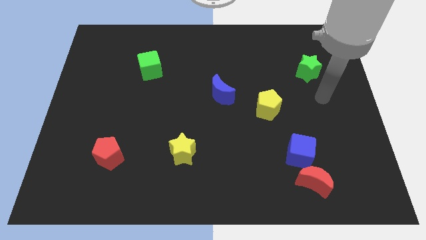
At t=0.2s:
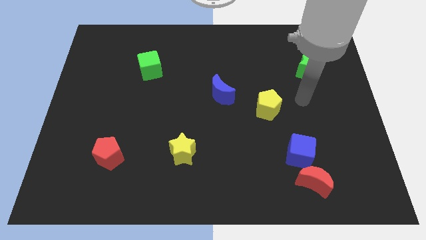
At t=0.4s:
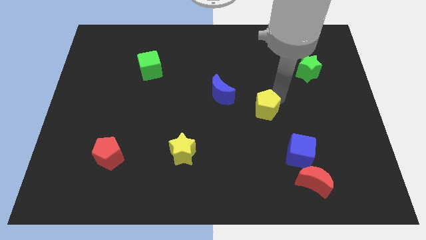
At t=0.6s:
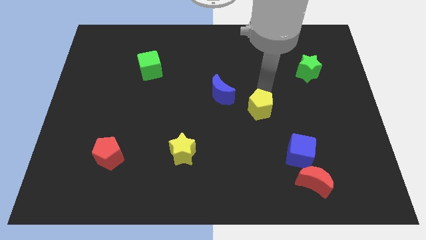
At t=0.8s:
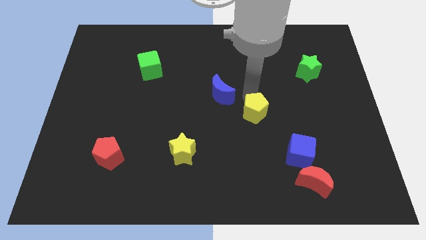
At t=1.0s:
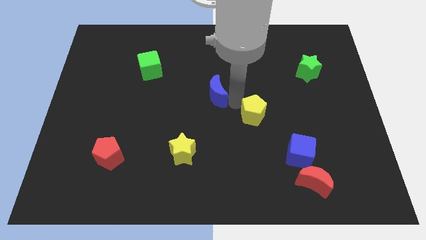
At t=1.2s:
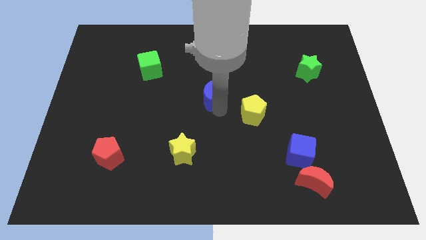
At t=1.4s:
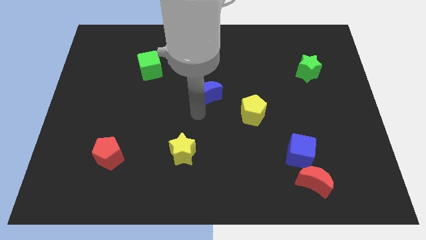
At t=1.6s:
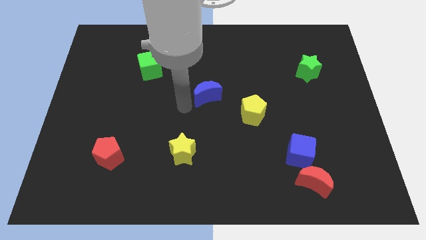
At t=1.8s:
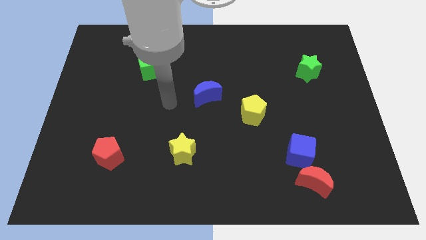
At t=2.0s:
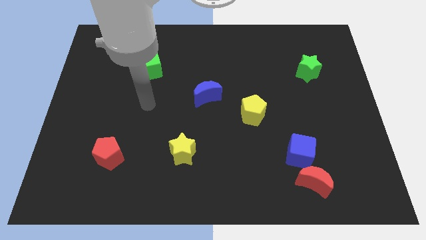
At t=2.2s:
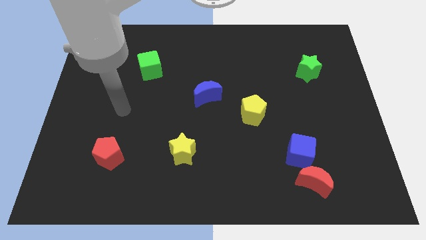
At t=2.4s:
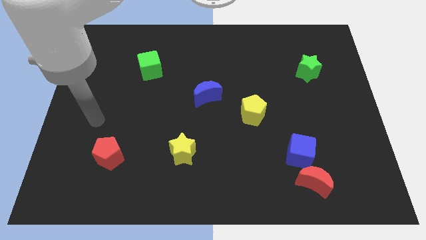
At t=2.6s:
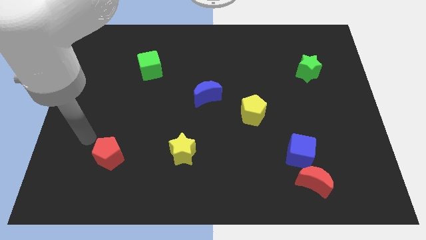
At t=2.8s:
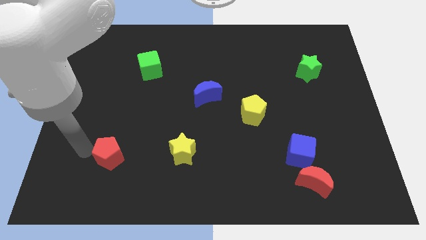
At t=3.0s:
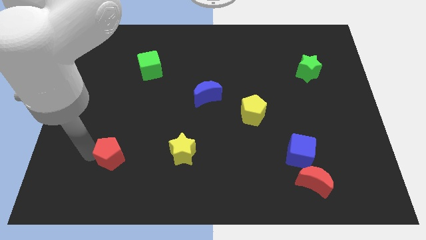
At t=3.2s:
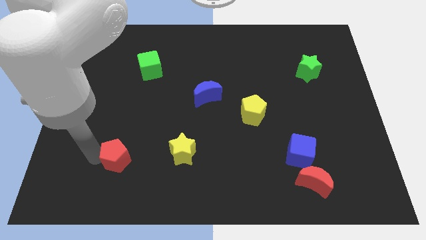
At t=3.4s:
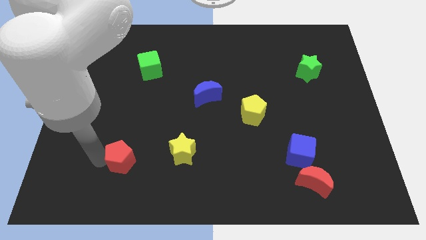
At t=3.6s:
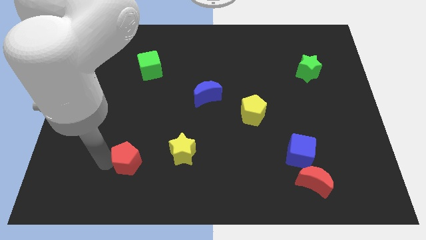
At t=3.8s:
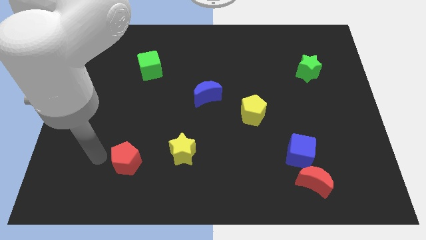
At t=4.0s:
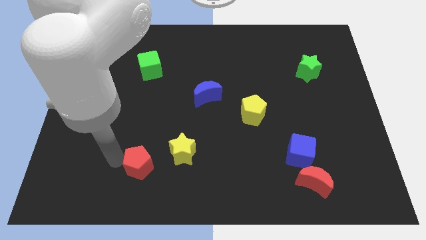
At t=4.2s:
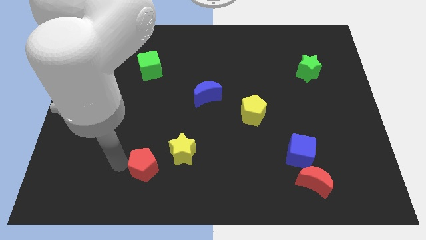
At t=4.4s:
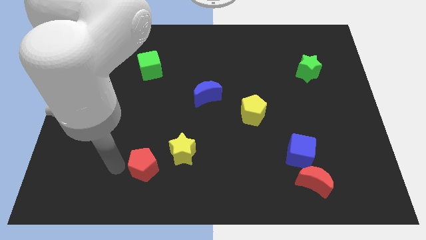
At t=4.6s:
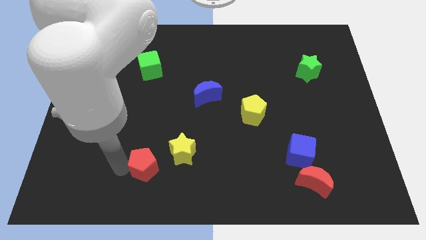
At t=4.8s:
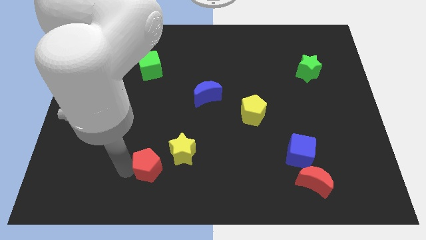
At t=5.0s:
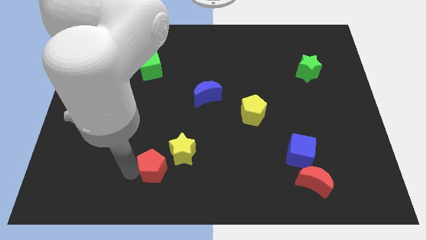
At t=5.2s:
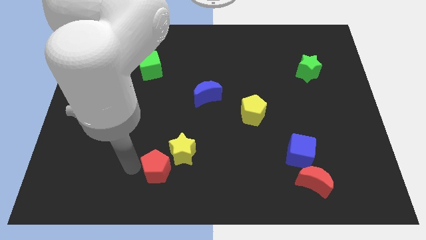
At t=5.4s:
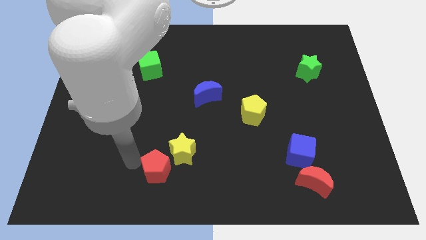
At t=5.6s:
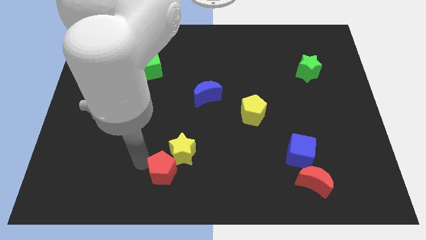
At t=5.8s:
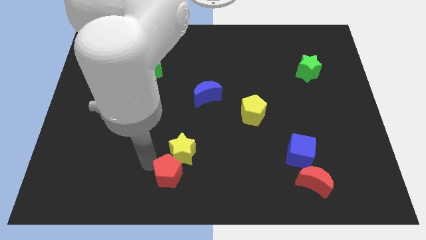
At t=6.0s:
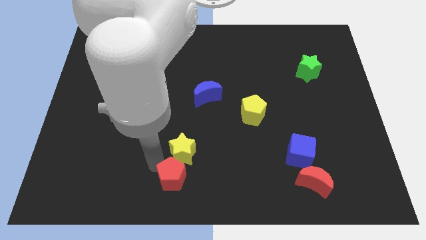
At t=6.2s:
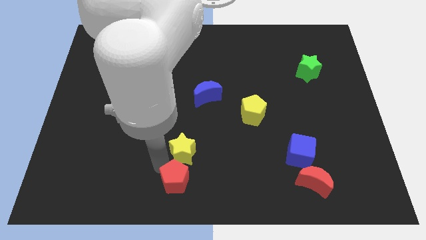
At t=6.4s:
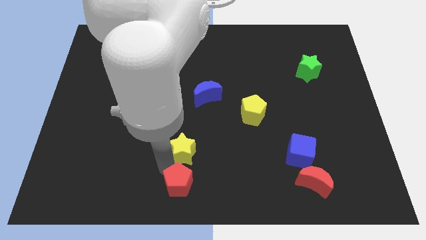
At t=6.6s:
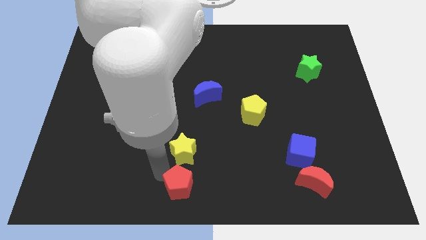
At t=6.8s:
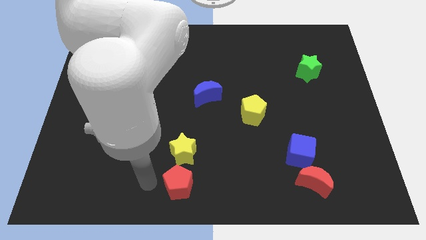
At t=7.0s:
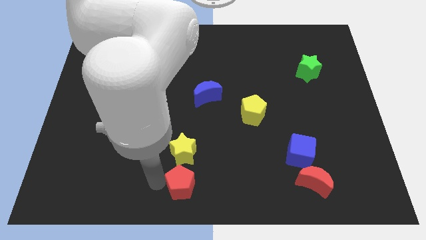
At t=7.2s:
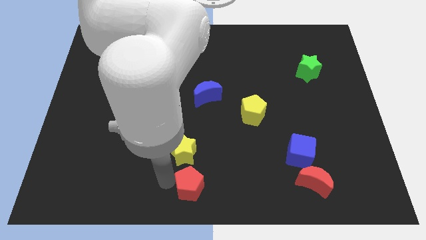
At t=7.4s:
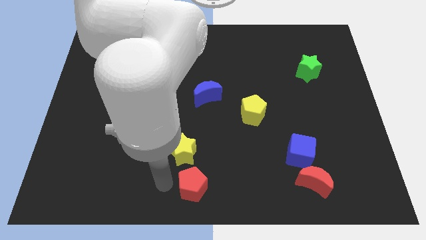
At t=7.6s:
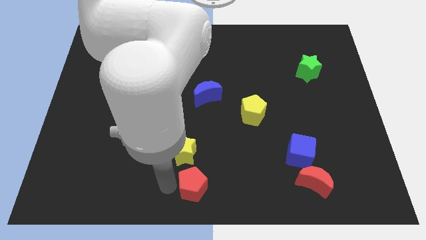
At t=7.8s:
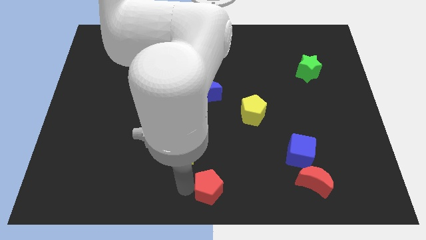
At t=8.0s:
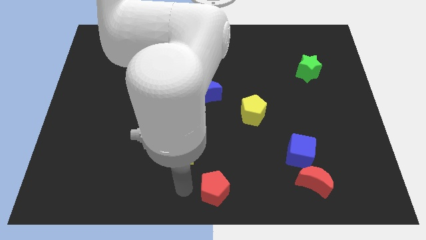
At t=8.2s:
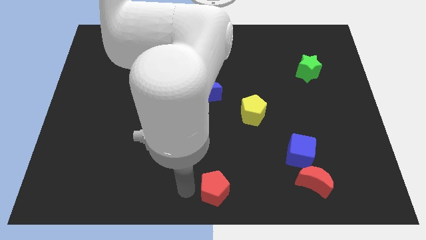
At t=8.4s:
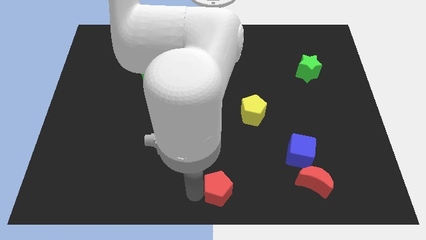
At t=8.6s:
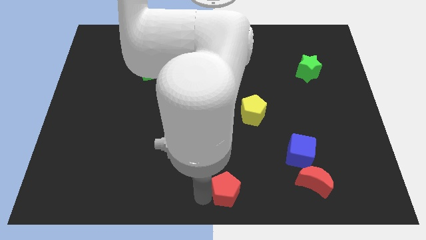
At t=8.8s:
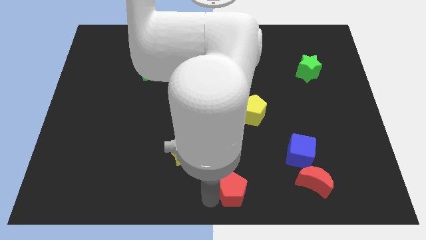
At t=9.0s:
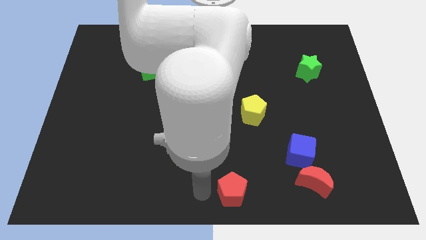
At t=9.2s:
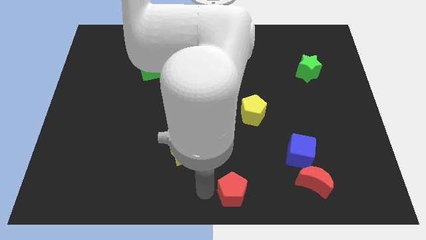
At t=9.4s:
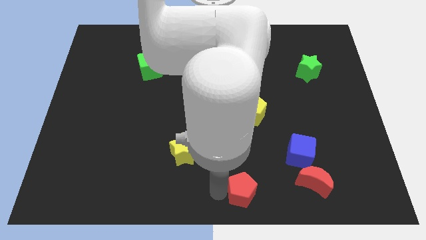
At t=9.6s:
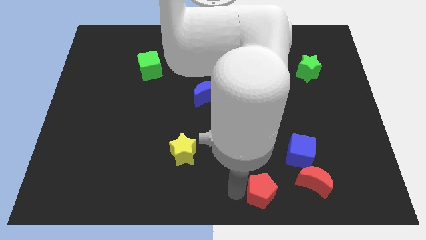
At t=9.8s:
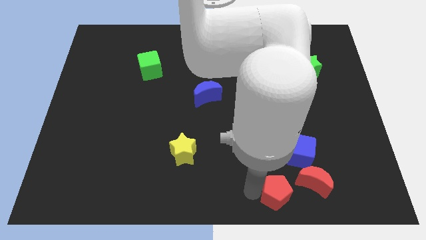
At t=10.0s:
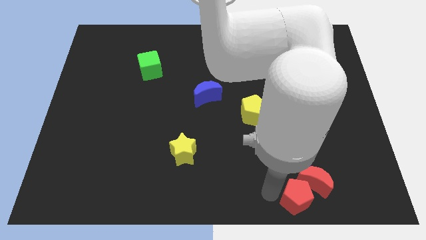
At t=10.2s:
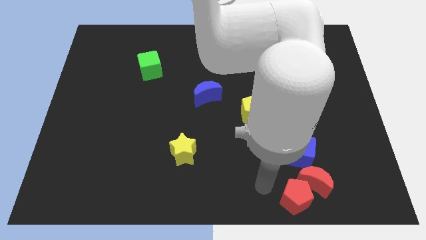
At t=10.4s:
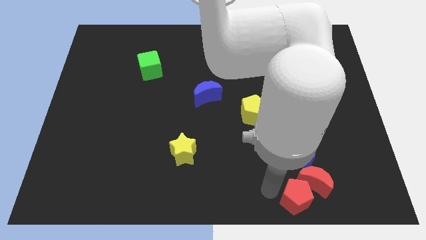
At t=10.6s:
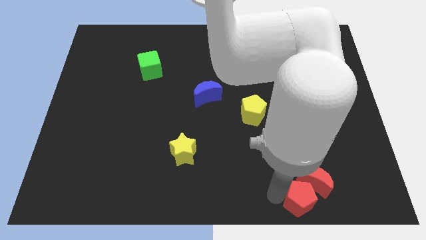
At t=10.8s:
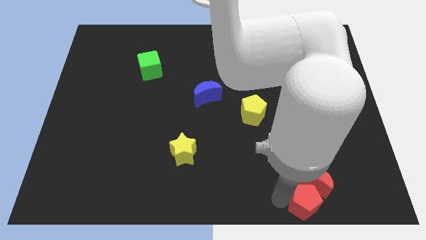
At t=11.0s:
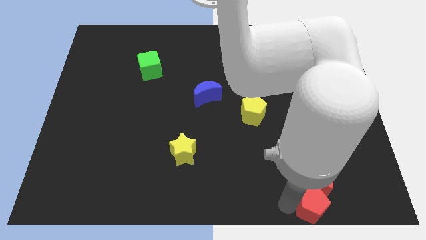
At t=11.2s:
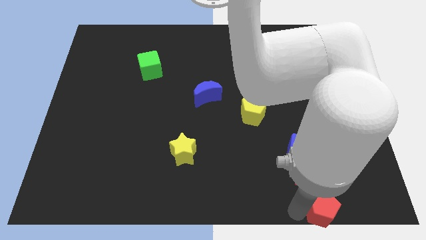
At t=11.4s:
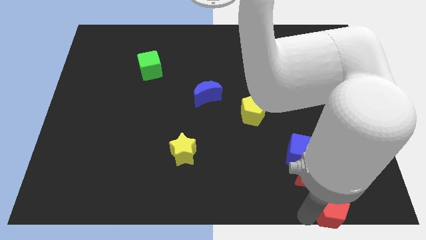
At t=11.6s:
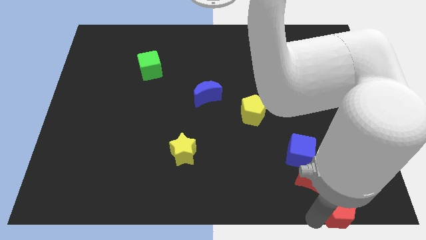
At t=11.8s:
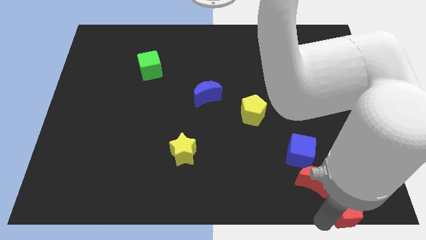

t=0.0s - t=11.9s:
push the red pentagon to the bottom right corner

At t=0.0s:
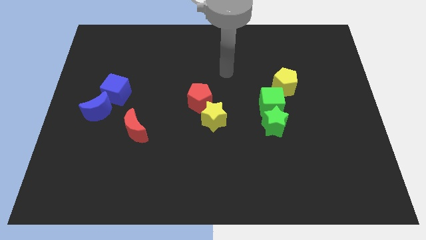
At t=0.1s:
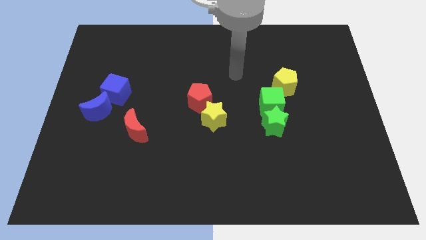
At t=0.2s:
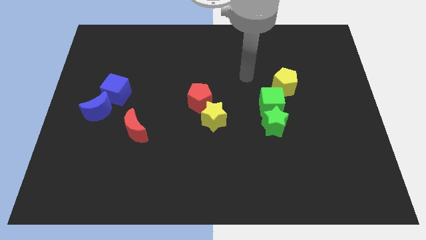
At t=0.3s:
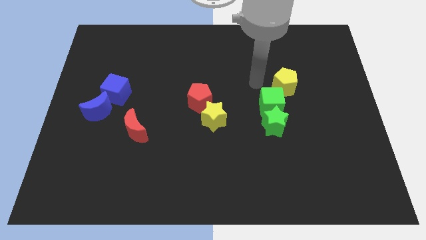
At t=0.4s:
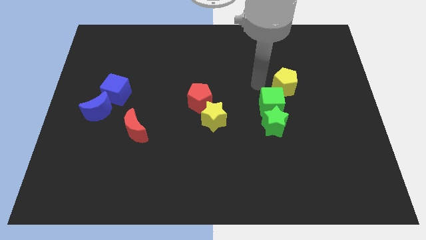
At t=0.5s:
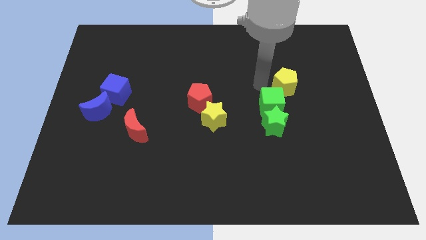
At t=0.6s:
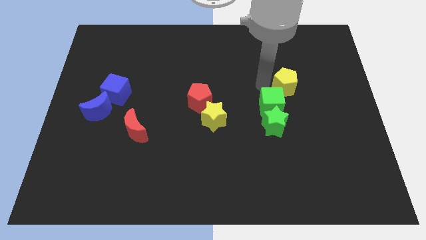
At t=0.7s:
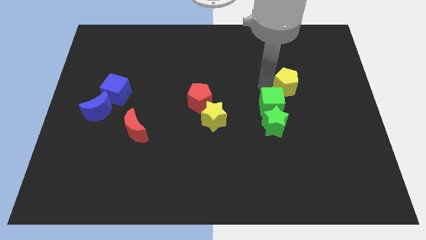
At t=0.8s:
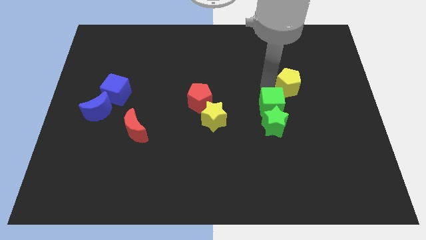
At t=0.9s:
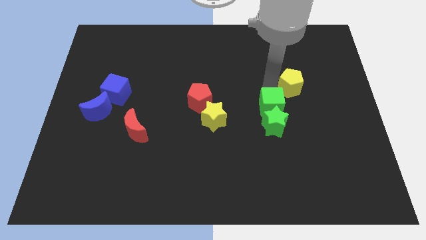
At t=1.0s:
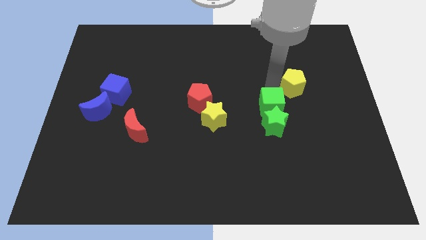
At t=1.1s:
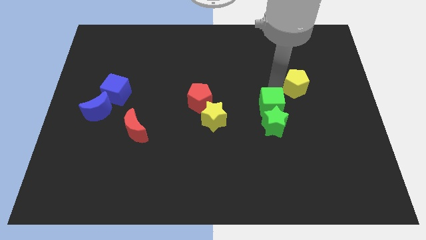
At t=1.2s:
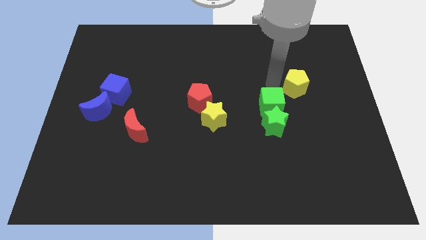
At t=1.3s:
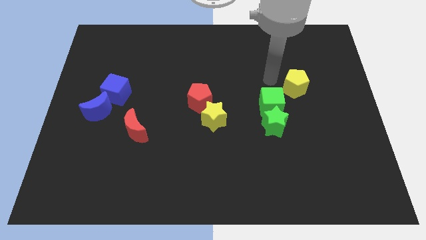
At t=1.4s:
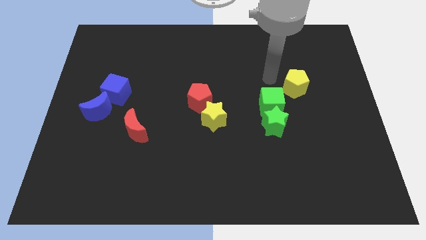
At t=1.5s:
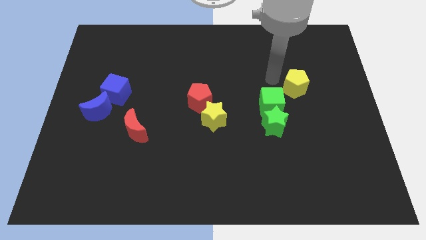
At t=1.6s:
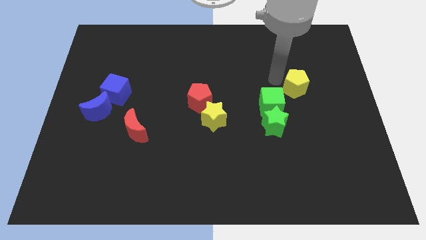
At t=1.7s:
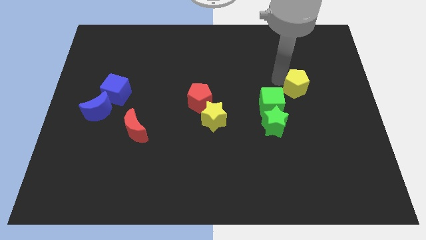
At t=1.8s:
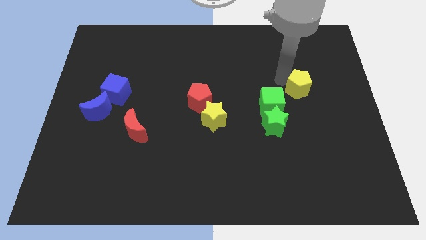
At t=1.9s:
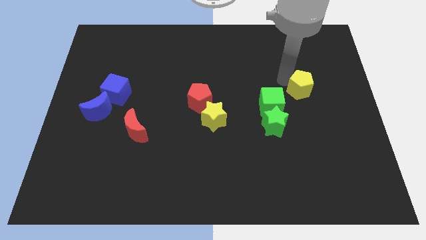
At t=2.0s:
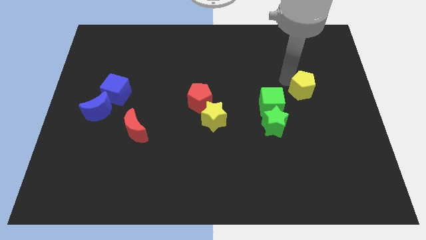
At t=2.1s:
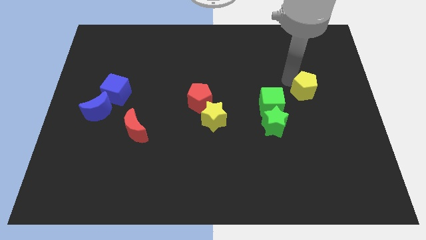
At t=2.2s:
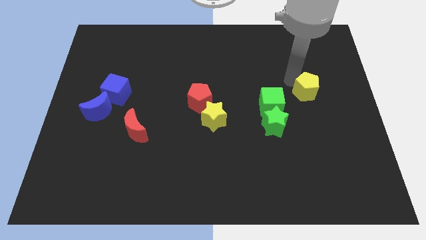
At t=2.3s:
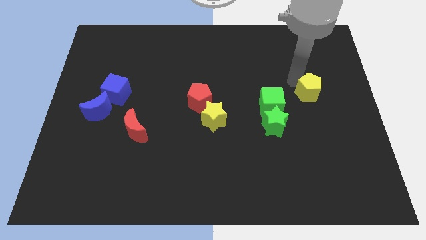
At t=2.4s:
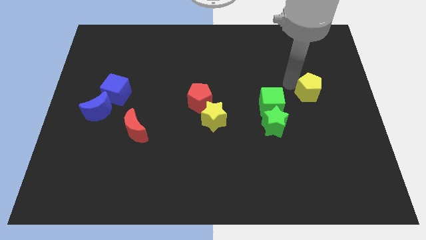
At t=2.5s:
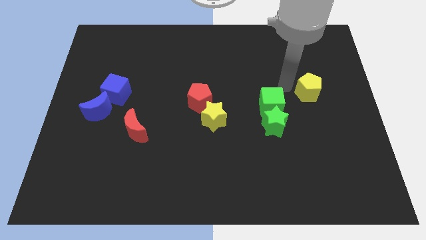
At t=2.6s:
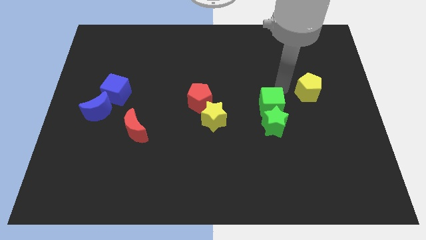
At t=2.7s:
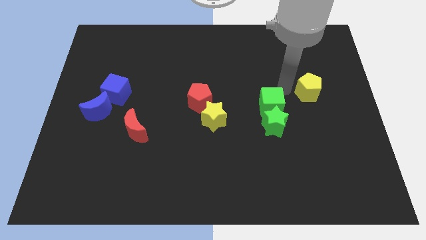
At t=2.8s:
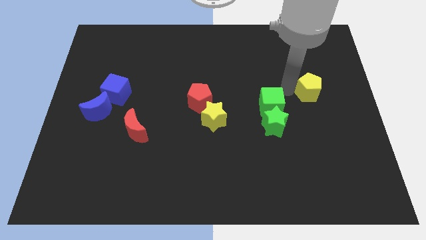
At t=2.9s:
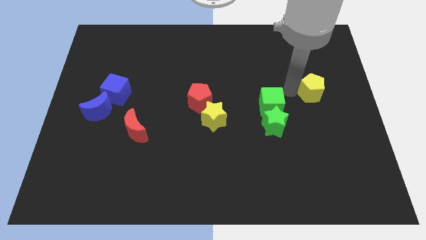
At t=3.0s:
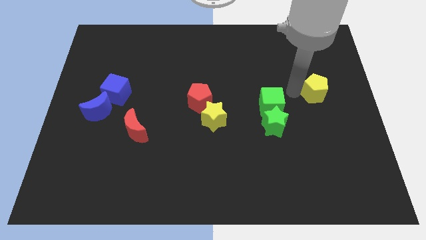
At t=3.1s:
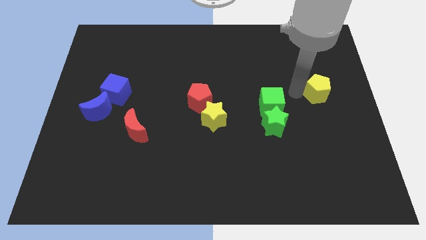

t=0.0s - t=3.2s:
slide the yellow pentagon to the right side
